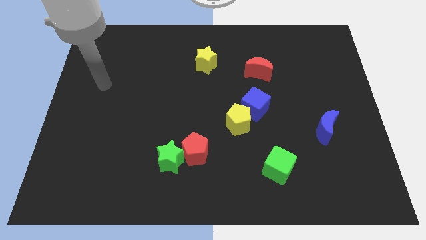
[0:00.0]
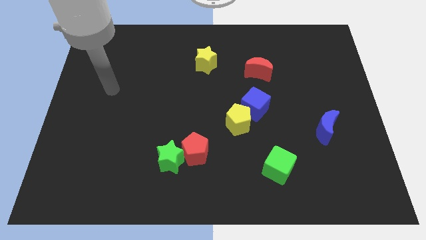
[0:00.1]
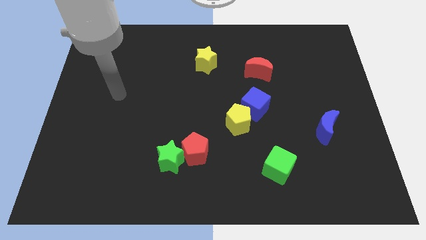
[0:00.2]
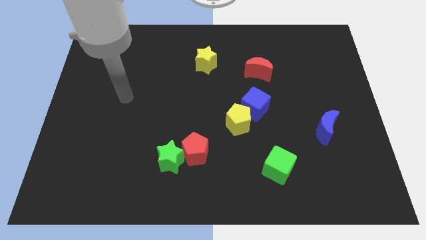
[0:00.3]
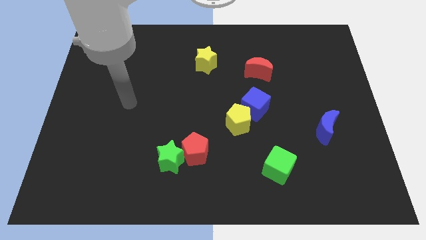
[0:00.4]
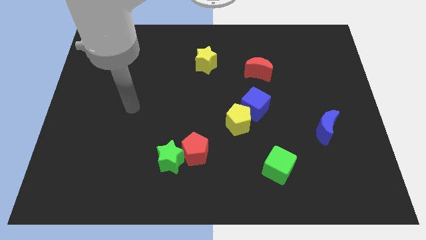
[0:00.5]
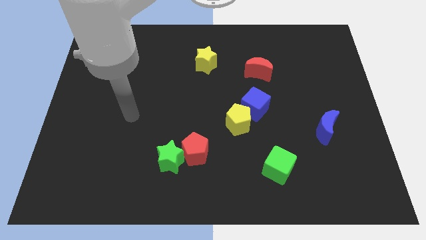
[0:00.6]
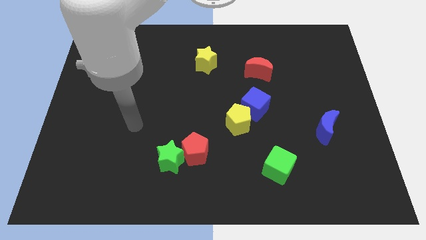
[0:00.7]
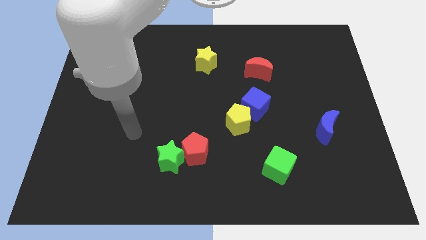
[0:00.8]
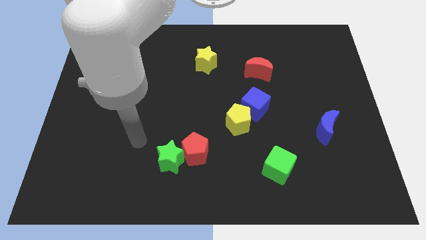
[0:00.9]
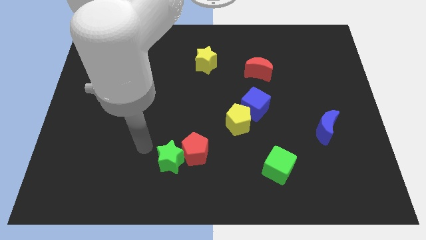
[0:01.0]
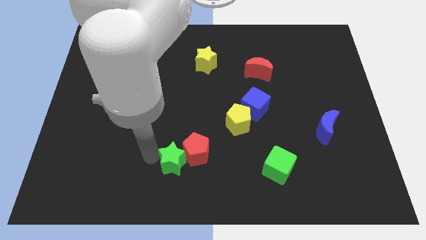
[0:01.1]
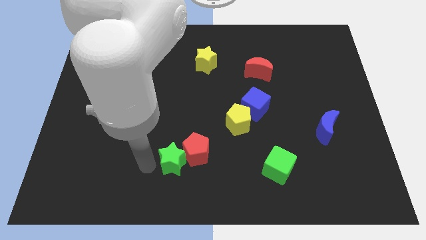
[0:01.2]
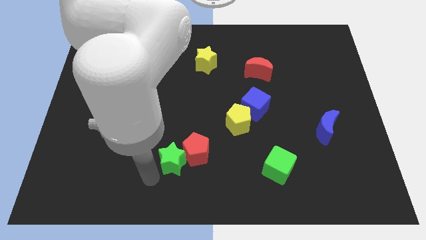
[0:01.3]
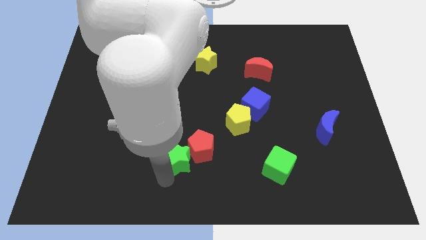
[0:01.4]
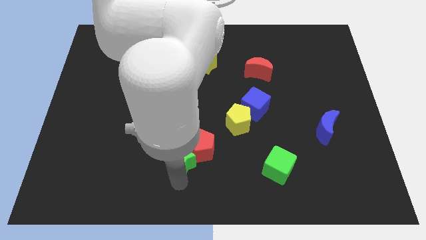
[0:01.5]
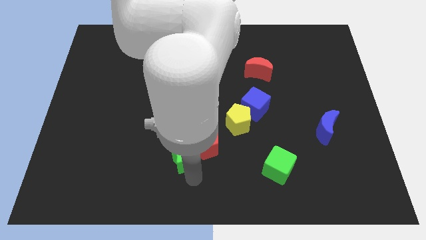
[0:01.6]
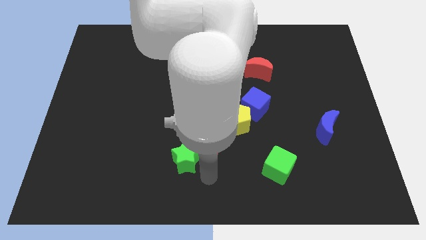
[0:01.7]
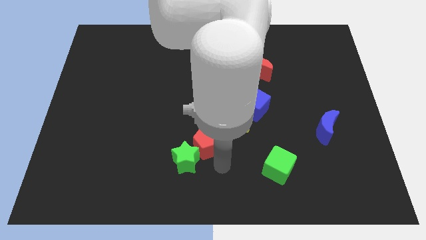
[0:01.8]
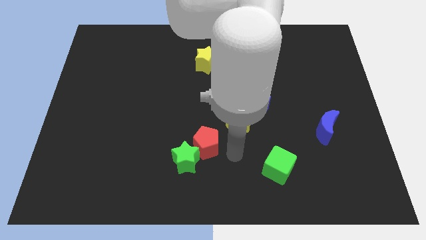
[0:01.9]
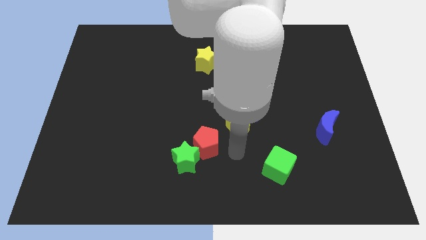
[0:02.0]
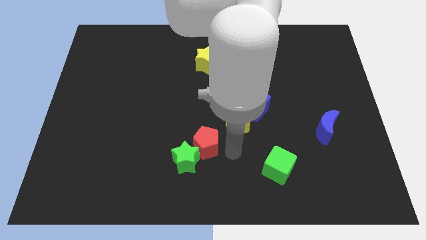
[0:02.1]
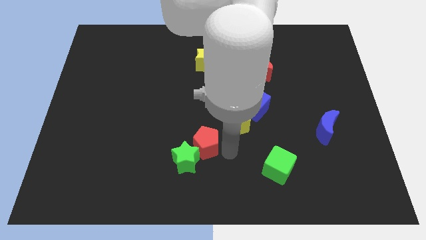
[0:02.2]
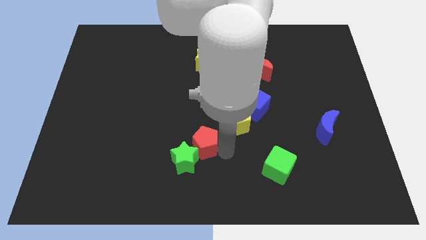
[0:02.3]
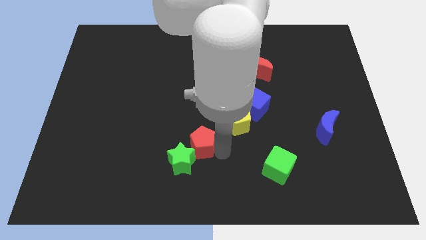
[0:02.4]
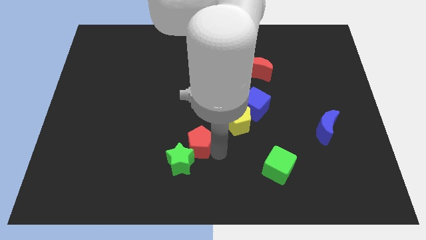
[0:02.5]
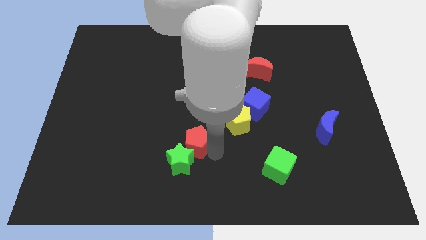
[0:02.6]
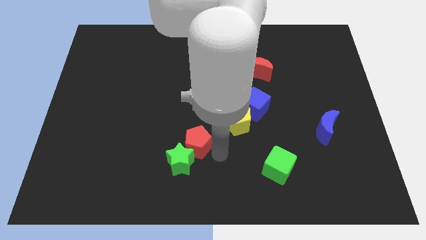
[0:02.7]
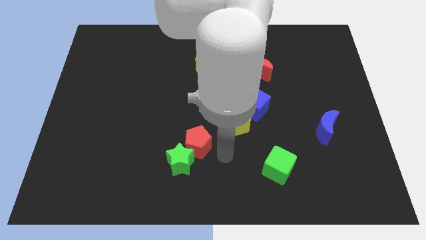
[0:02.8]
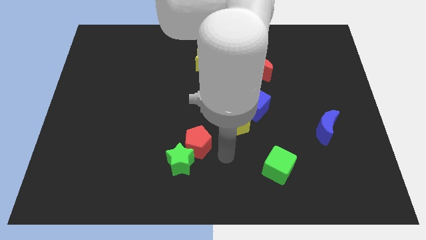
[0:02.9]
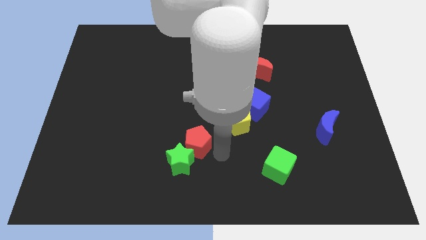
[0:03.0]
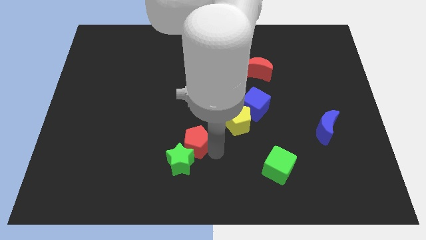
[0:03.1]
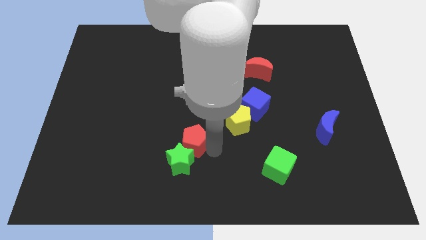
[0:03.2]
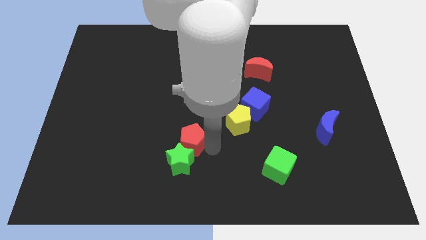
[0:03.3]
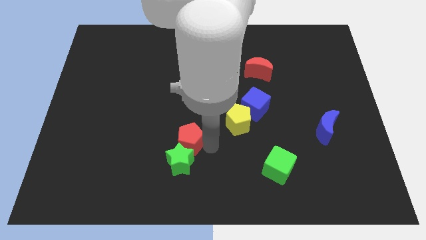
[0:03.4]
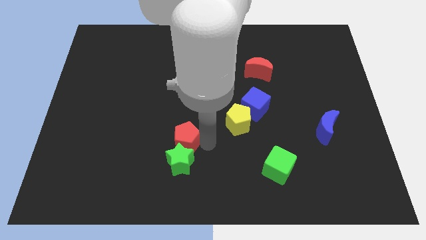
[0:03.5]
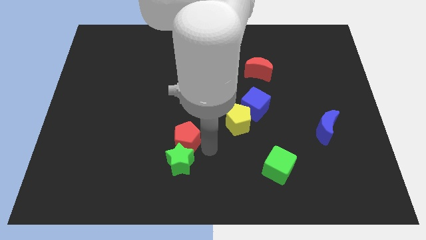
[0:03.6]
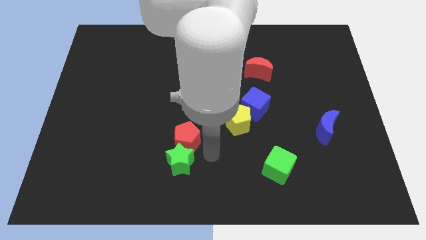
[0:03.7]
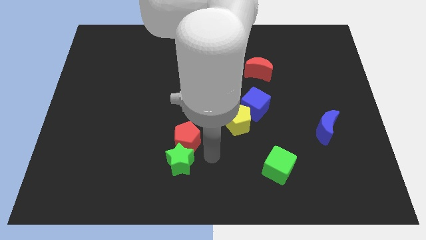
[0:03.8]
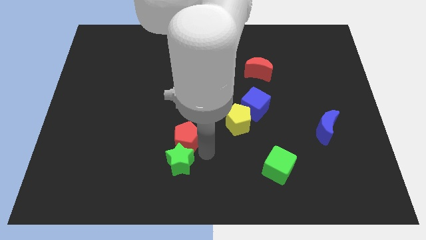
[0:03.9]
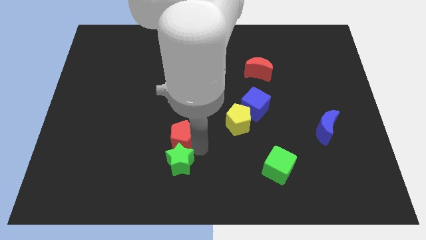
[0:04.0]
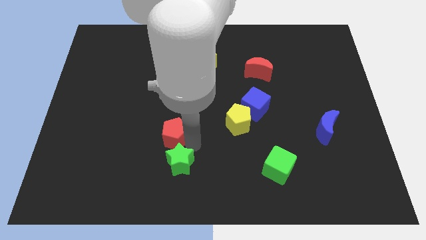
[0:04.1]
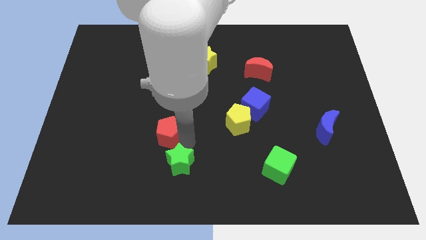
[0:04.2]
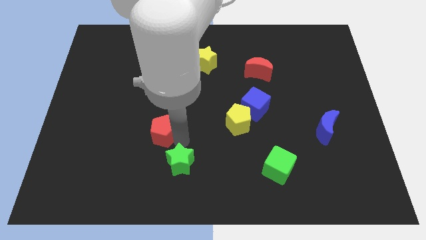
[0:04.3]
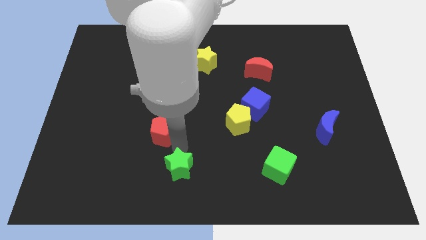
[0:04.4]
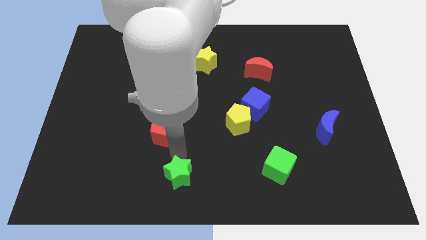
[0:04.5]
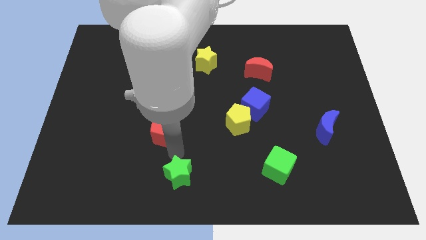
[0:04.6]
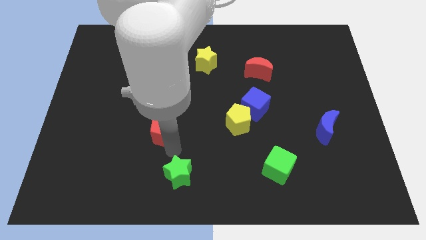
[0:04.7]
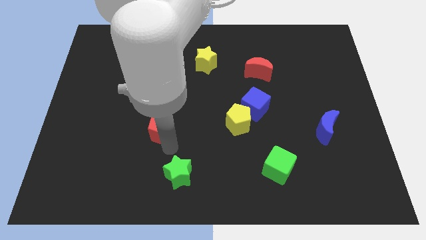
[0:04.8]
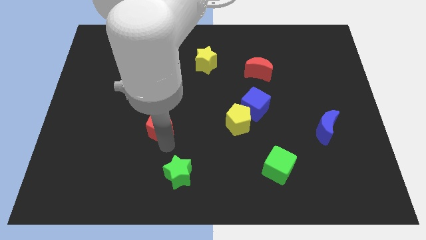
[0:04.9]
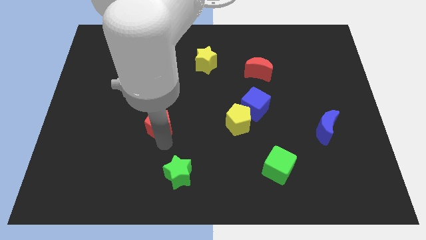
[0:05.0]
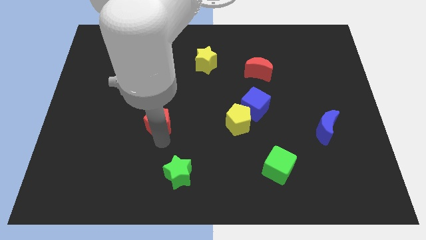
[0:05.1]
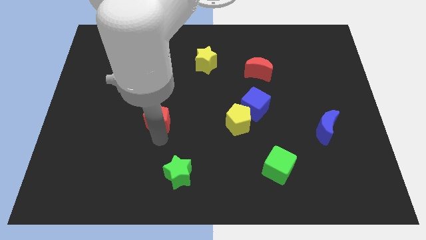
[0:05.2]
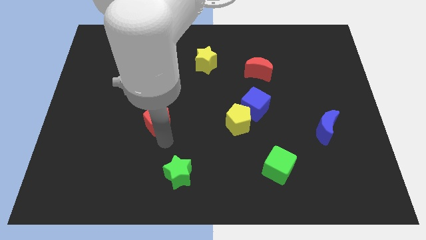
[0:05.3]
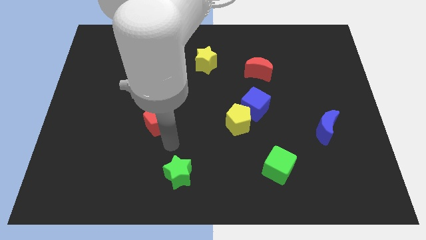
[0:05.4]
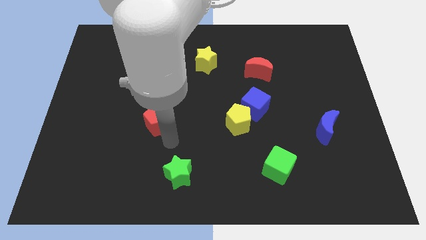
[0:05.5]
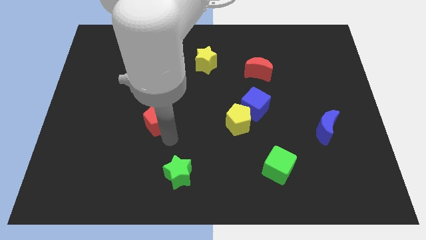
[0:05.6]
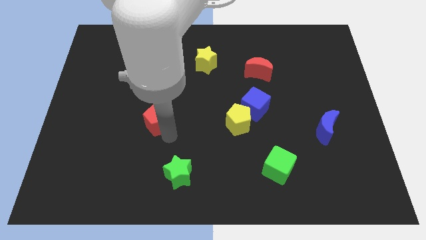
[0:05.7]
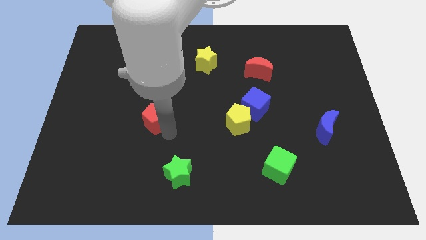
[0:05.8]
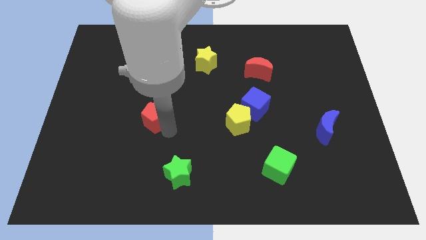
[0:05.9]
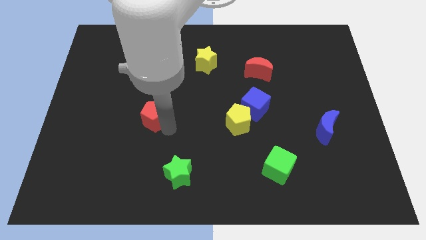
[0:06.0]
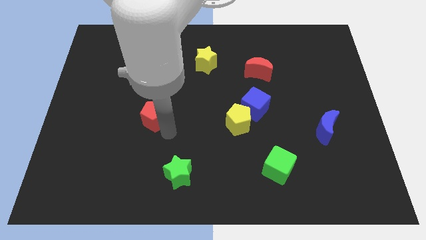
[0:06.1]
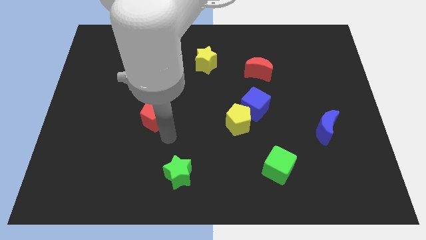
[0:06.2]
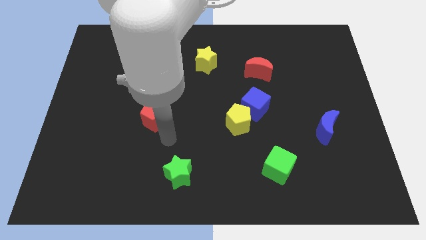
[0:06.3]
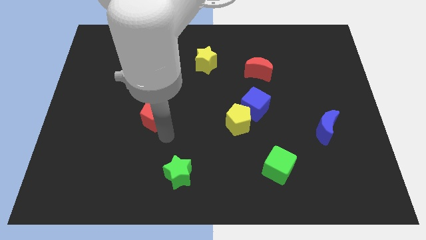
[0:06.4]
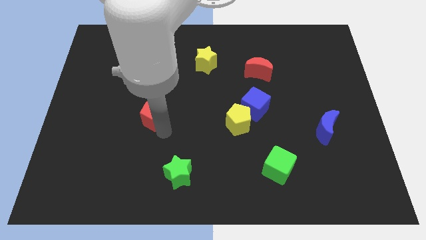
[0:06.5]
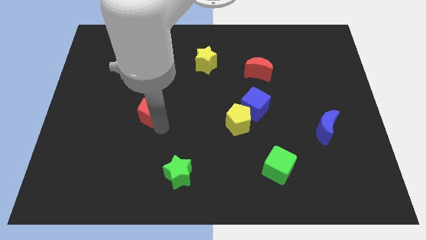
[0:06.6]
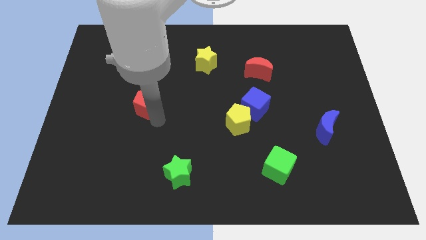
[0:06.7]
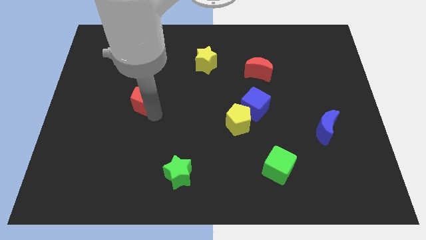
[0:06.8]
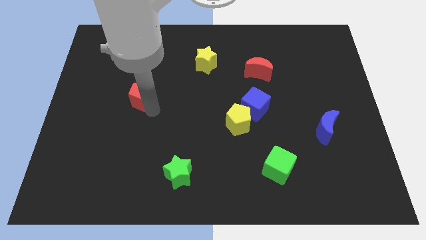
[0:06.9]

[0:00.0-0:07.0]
push the red pentagon diagonally upwards and to the left

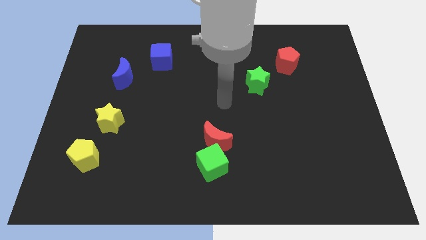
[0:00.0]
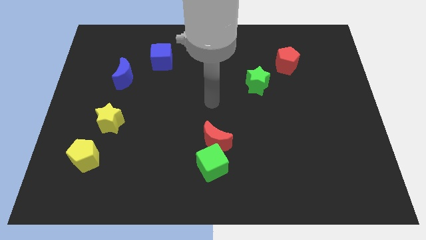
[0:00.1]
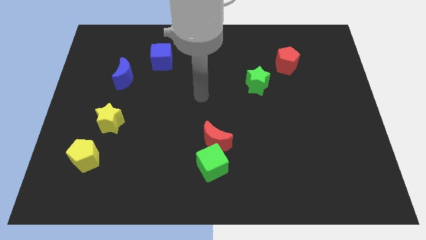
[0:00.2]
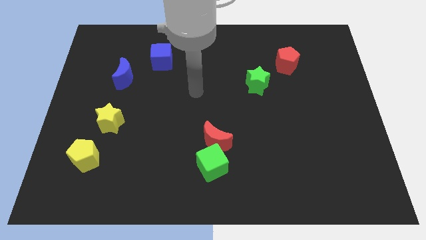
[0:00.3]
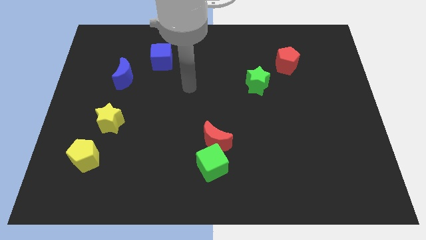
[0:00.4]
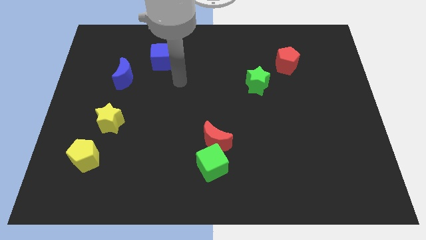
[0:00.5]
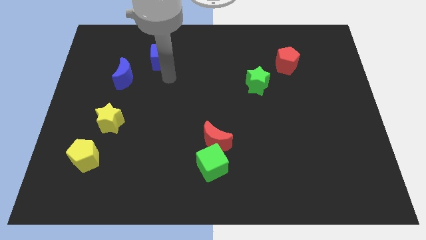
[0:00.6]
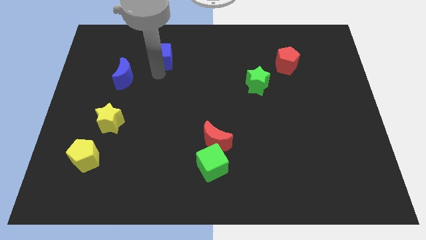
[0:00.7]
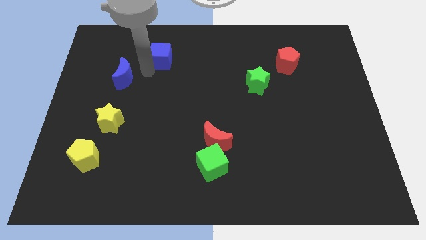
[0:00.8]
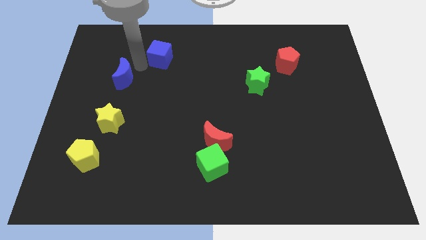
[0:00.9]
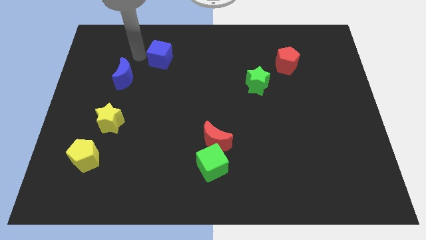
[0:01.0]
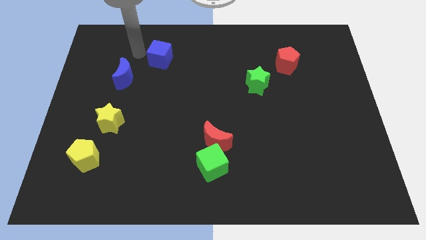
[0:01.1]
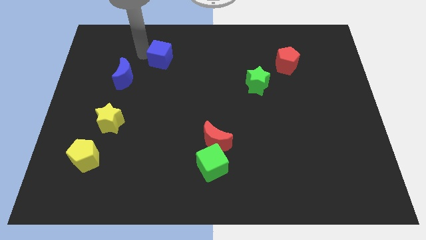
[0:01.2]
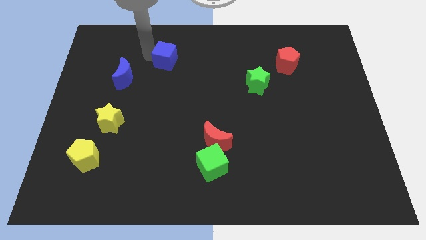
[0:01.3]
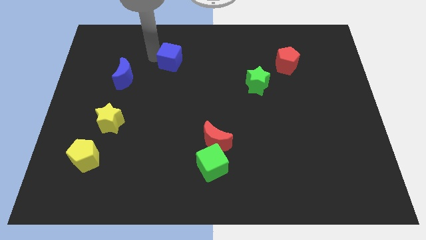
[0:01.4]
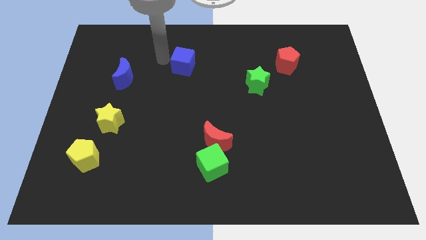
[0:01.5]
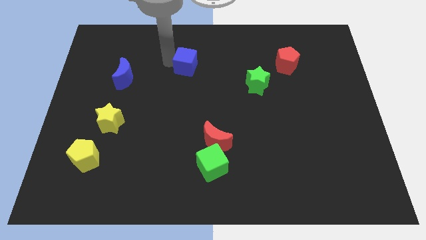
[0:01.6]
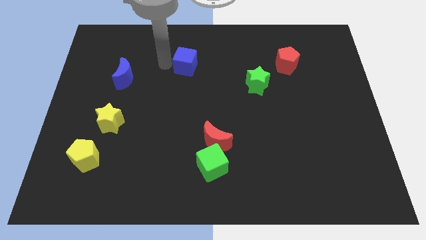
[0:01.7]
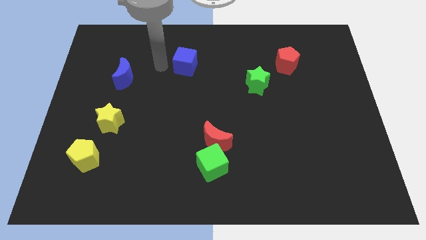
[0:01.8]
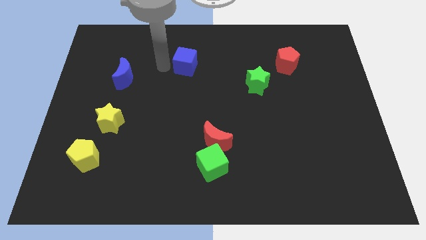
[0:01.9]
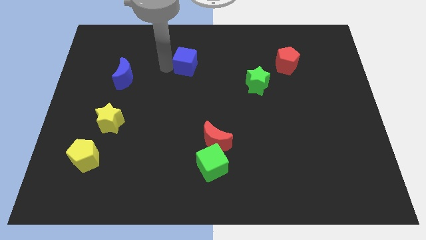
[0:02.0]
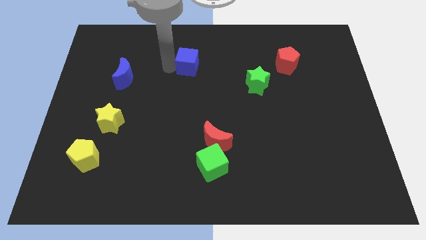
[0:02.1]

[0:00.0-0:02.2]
slightly move the blue cube to the right
